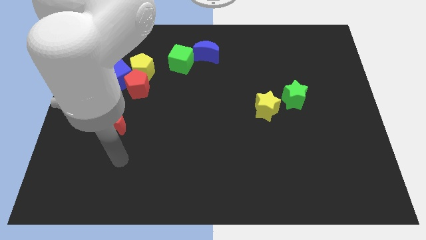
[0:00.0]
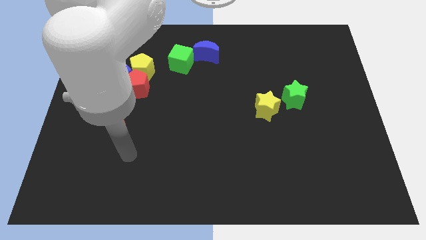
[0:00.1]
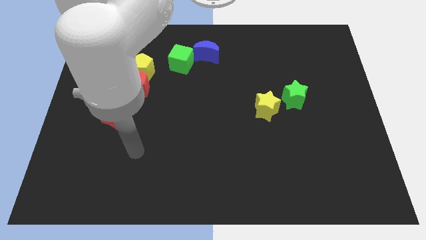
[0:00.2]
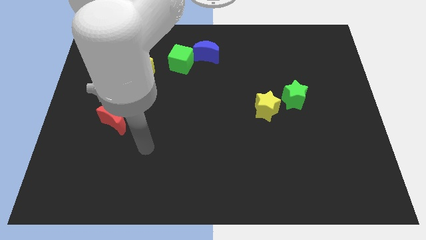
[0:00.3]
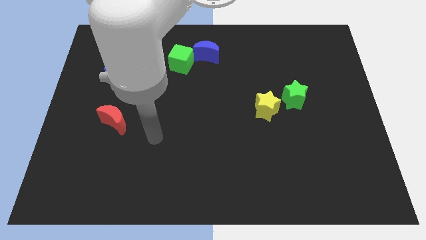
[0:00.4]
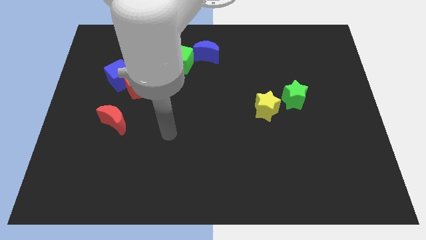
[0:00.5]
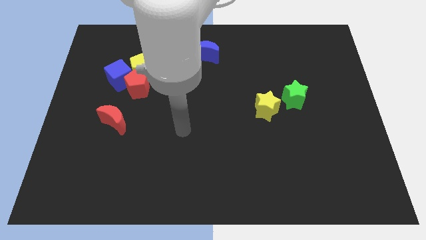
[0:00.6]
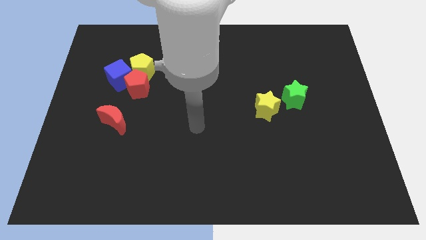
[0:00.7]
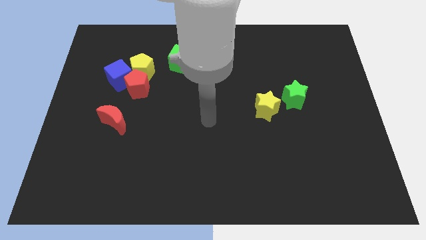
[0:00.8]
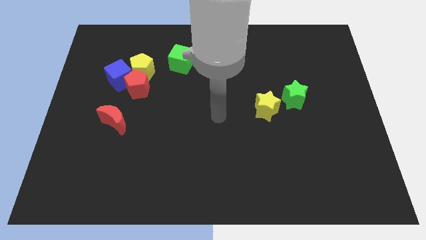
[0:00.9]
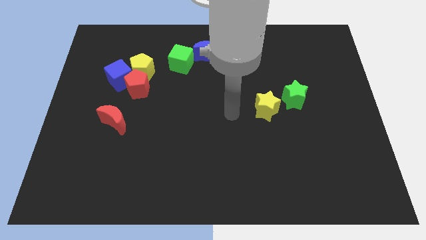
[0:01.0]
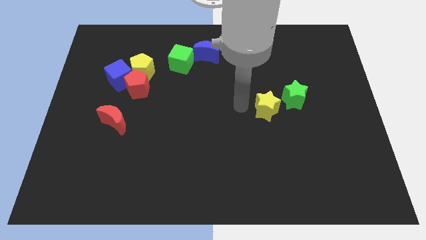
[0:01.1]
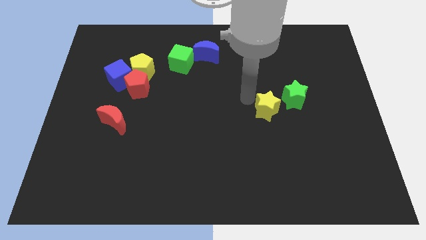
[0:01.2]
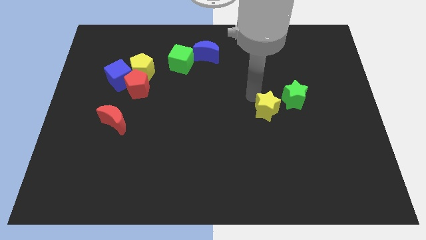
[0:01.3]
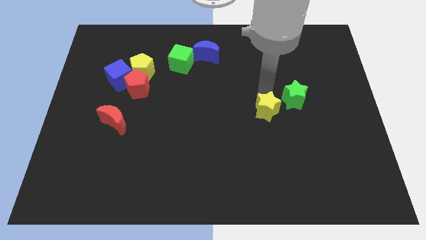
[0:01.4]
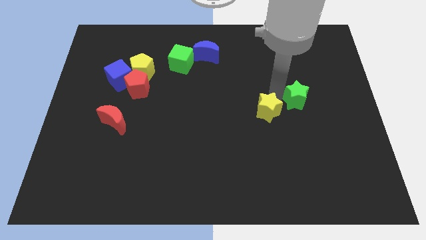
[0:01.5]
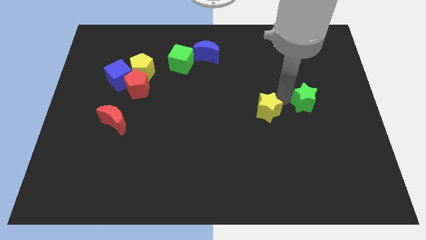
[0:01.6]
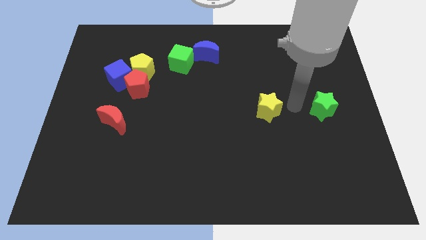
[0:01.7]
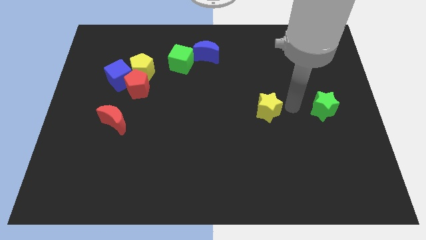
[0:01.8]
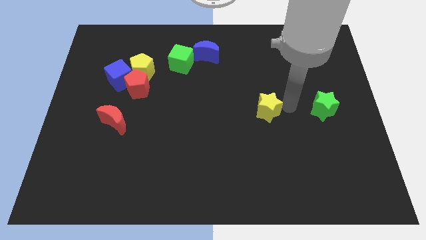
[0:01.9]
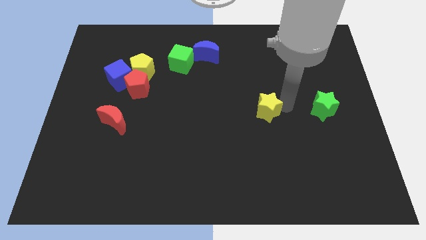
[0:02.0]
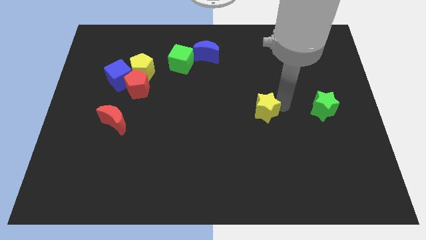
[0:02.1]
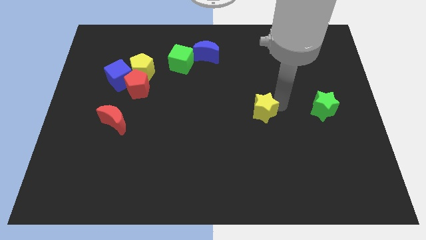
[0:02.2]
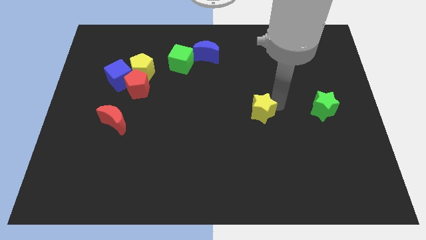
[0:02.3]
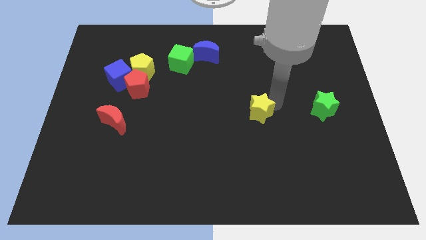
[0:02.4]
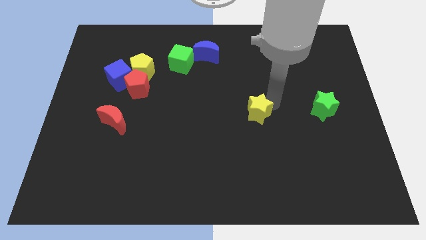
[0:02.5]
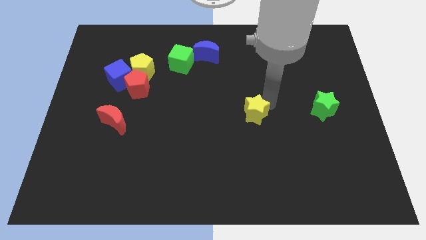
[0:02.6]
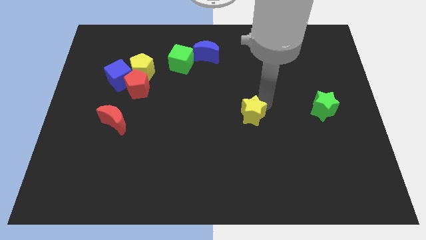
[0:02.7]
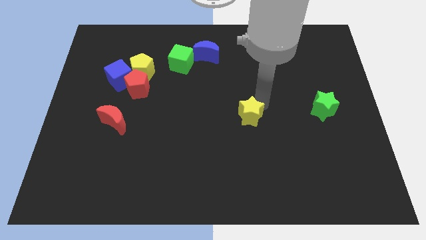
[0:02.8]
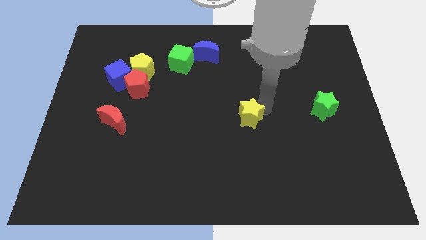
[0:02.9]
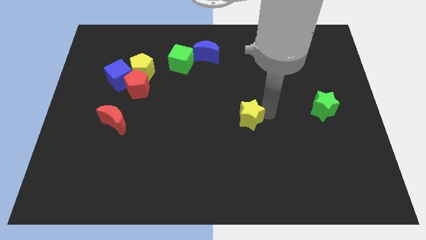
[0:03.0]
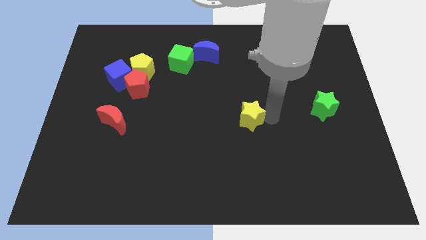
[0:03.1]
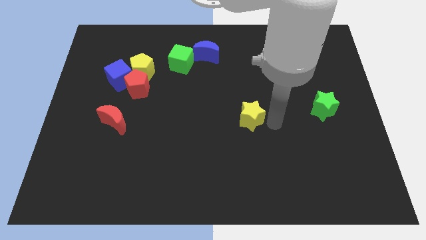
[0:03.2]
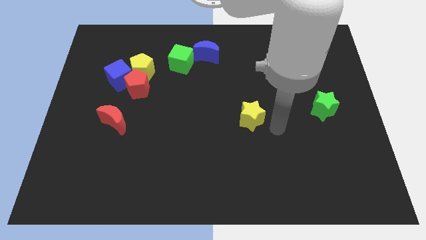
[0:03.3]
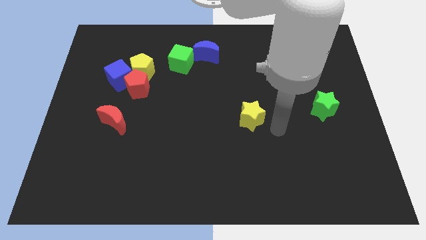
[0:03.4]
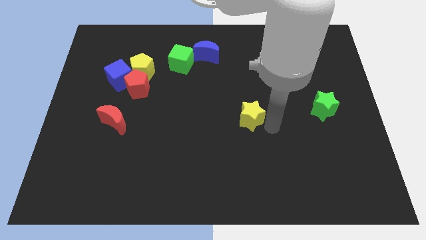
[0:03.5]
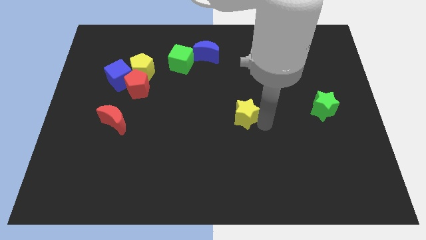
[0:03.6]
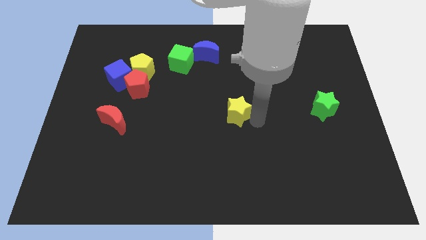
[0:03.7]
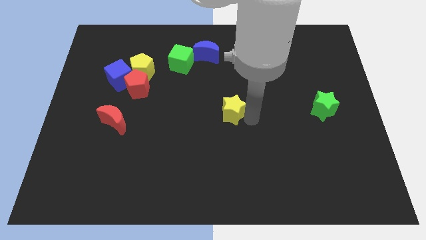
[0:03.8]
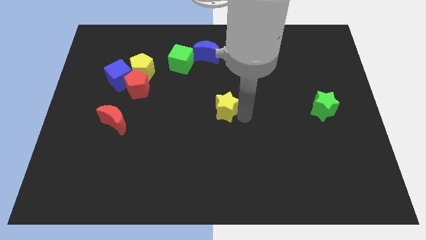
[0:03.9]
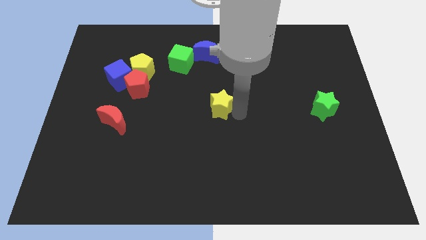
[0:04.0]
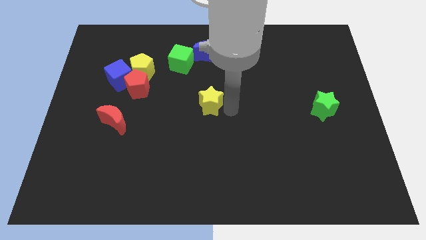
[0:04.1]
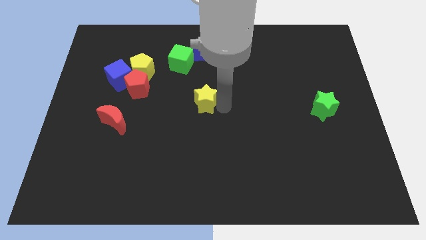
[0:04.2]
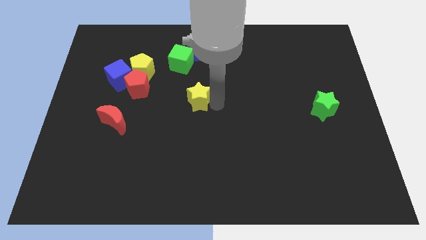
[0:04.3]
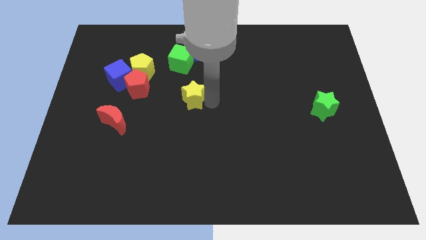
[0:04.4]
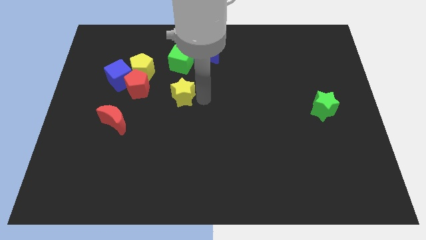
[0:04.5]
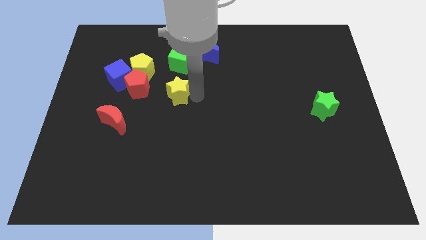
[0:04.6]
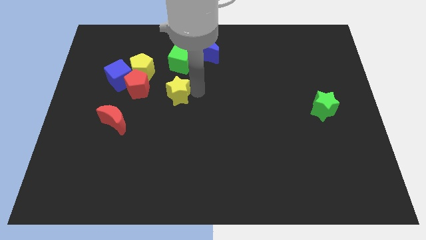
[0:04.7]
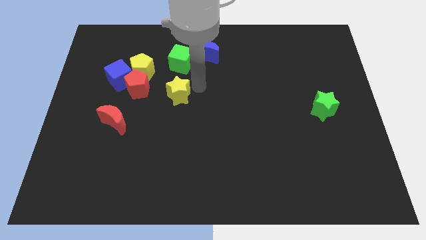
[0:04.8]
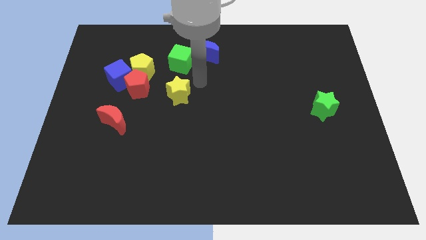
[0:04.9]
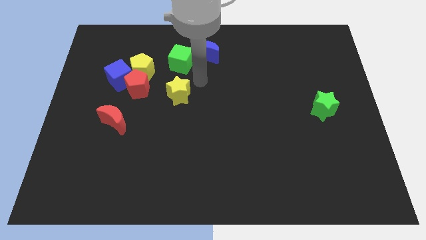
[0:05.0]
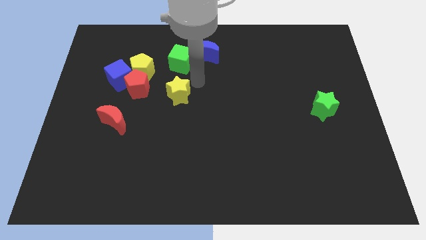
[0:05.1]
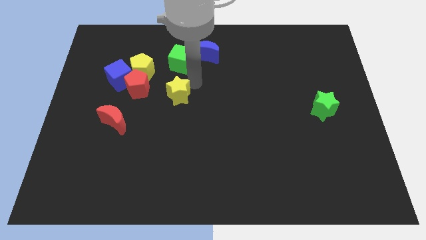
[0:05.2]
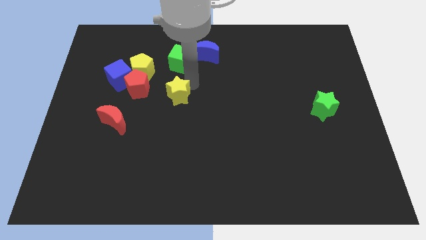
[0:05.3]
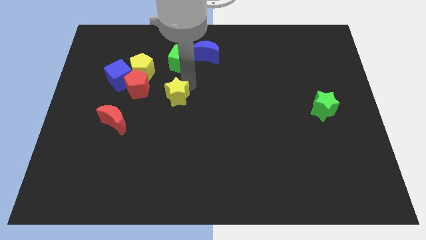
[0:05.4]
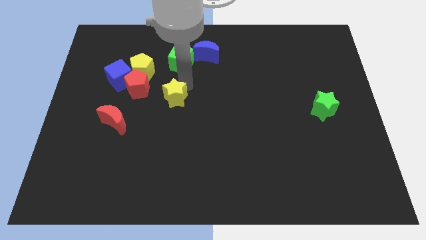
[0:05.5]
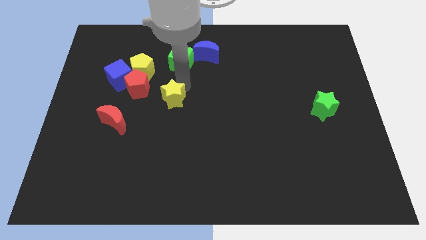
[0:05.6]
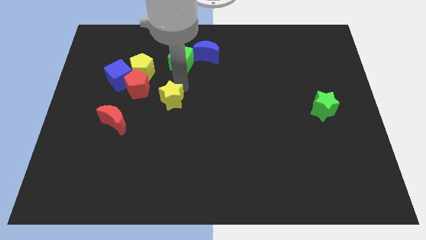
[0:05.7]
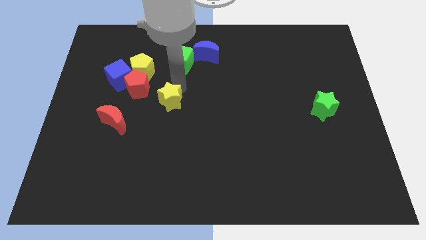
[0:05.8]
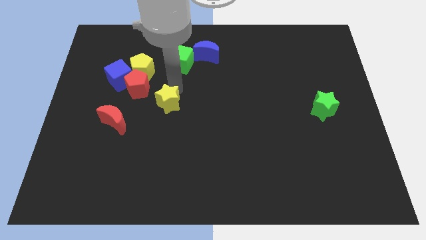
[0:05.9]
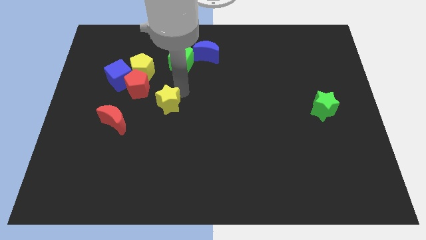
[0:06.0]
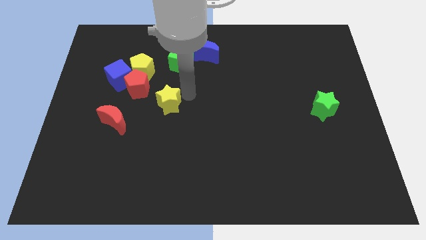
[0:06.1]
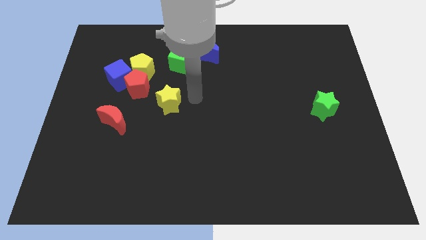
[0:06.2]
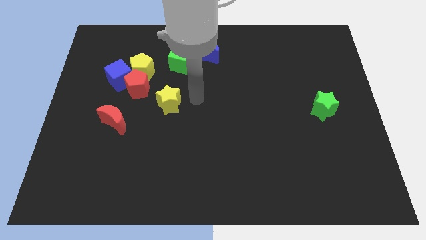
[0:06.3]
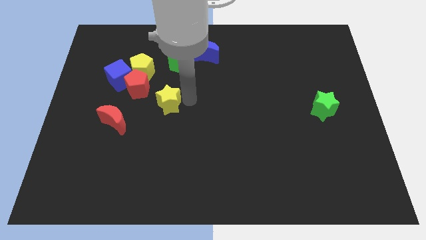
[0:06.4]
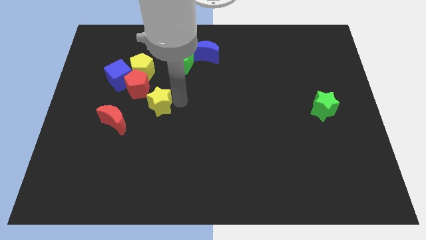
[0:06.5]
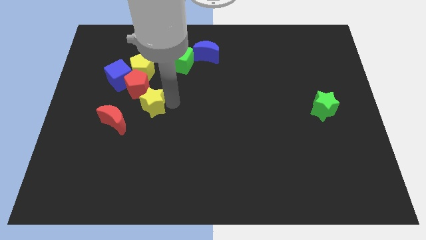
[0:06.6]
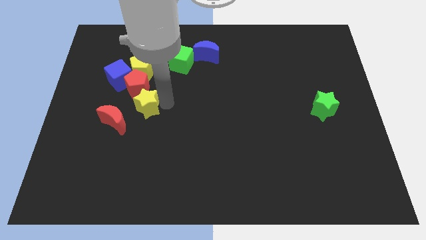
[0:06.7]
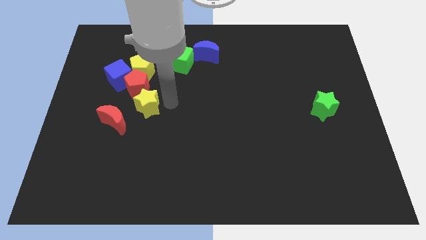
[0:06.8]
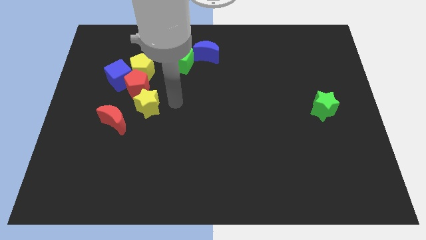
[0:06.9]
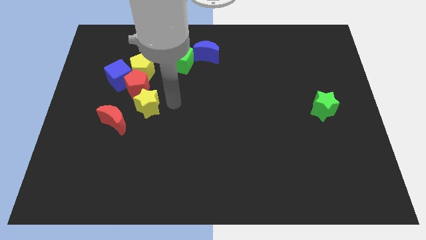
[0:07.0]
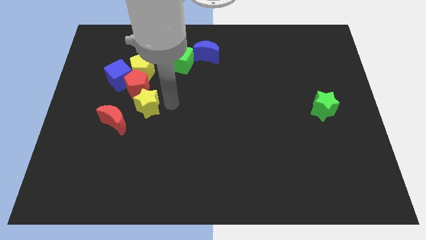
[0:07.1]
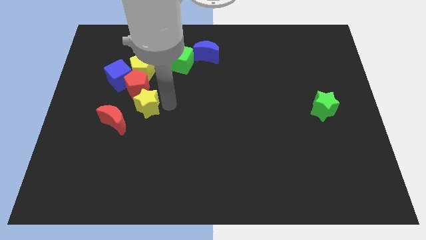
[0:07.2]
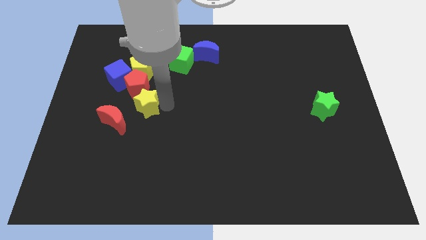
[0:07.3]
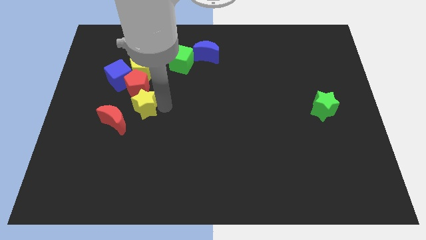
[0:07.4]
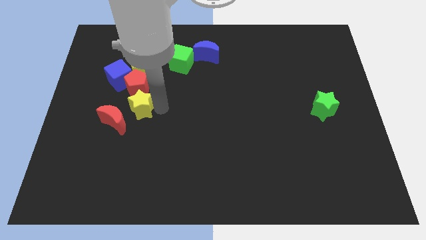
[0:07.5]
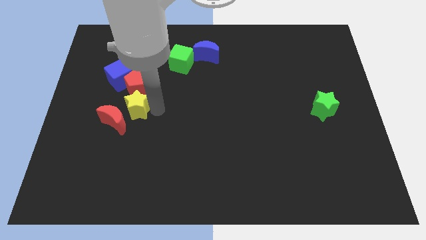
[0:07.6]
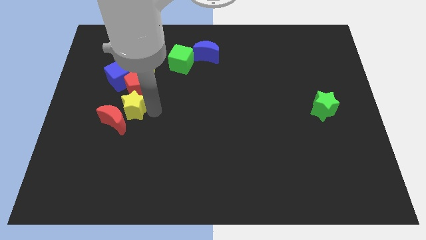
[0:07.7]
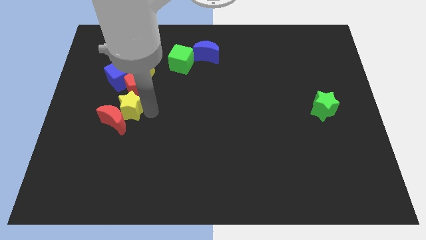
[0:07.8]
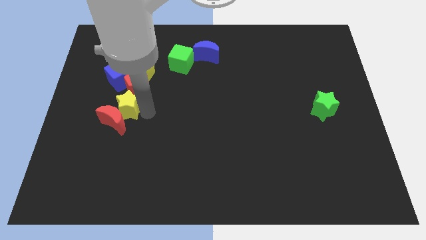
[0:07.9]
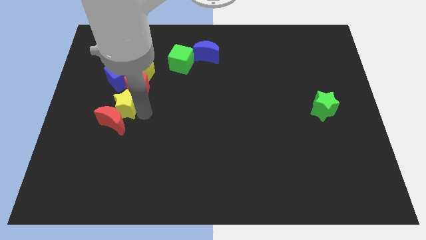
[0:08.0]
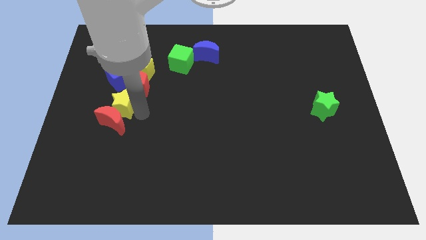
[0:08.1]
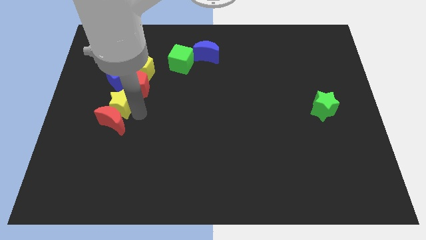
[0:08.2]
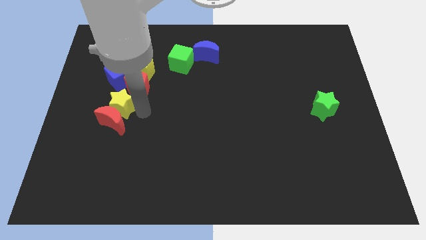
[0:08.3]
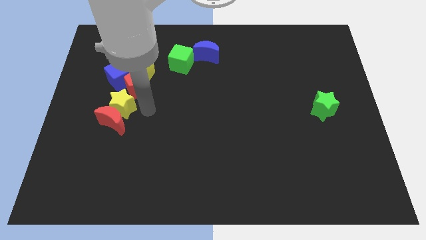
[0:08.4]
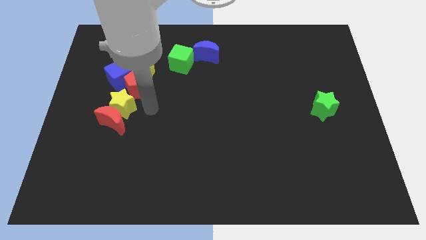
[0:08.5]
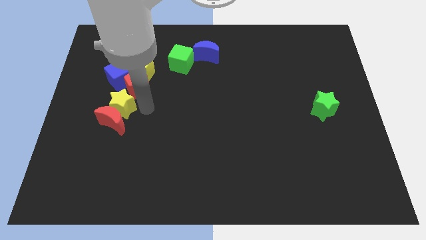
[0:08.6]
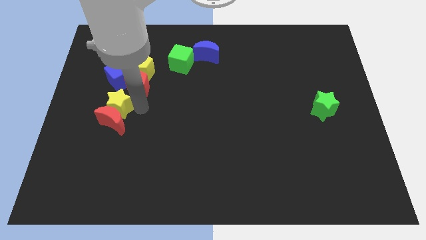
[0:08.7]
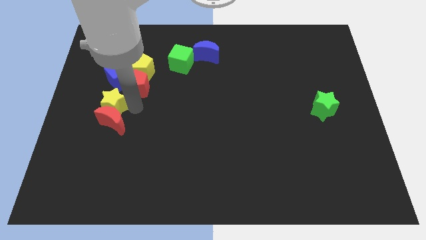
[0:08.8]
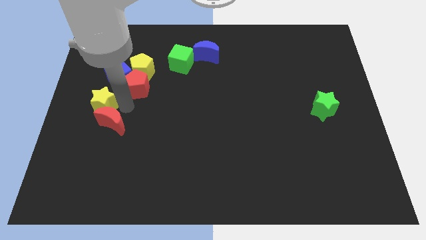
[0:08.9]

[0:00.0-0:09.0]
move the yellow star to the center left
